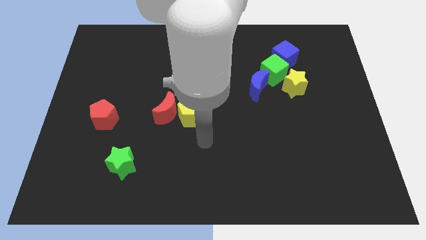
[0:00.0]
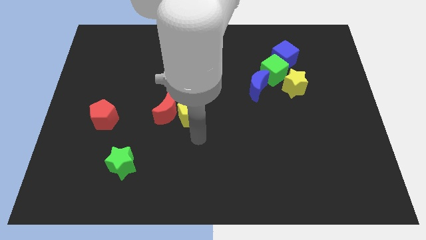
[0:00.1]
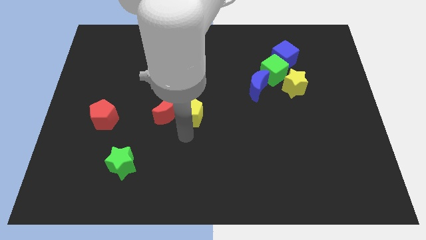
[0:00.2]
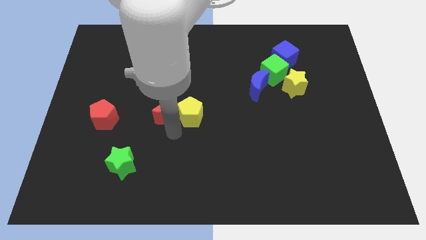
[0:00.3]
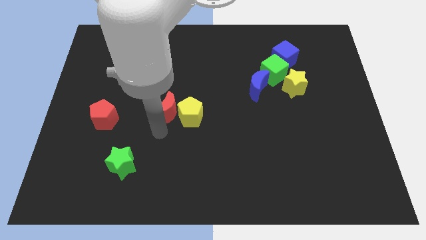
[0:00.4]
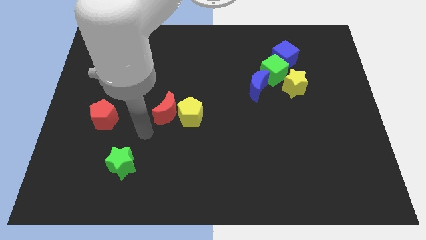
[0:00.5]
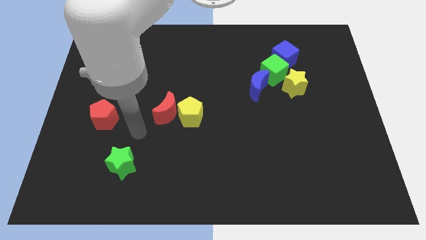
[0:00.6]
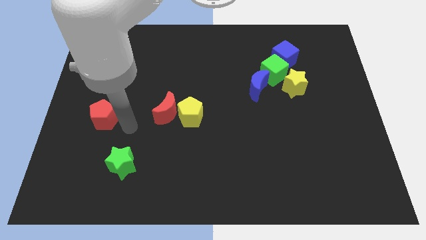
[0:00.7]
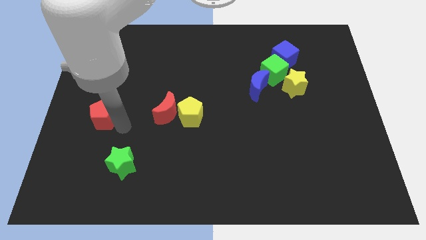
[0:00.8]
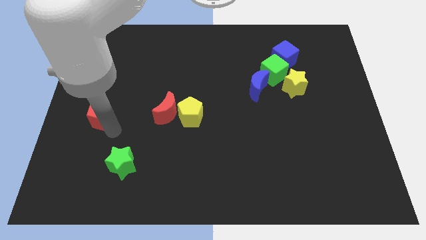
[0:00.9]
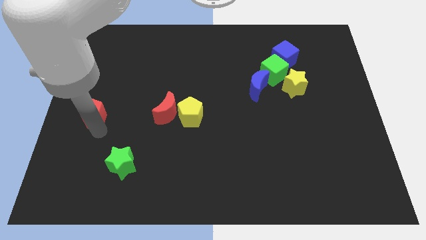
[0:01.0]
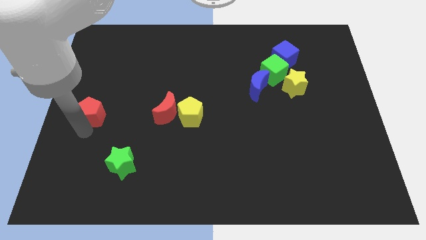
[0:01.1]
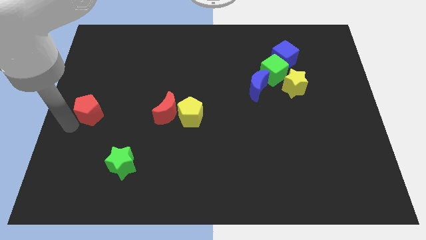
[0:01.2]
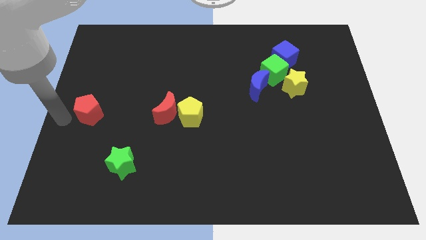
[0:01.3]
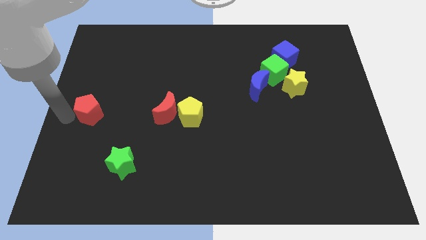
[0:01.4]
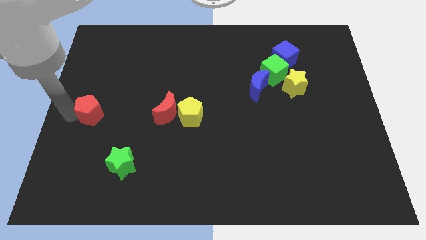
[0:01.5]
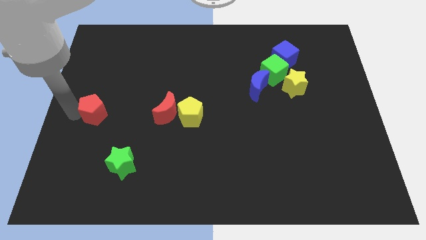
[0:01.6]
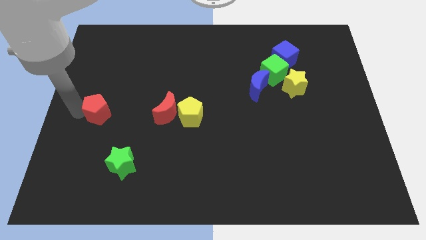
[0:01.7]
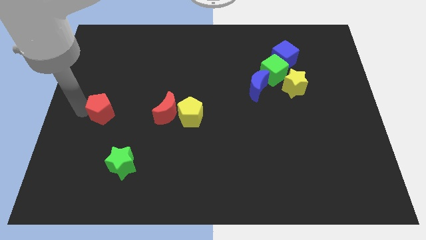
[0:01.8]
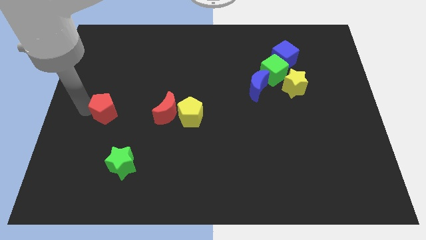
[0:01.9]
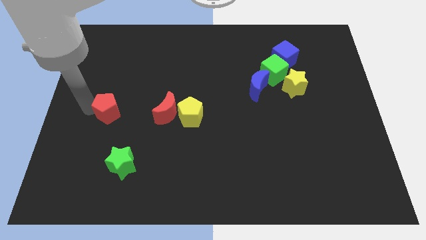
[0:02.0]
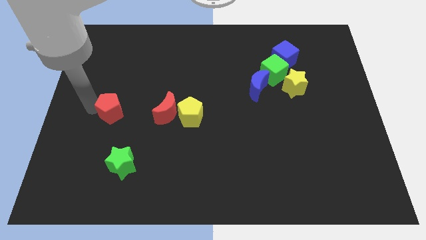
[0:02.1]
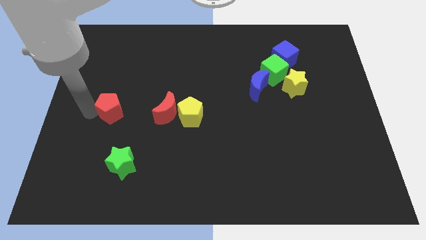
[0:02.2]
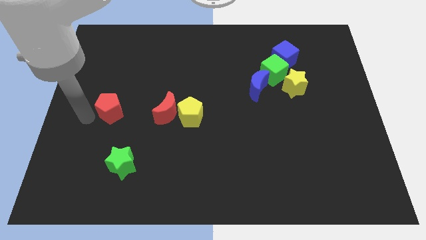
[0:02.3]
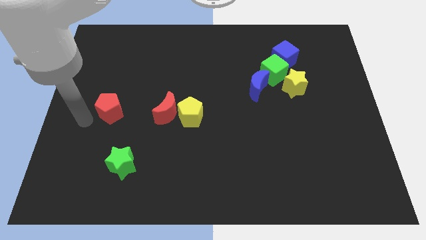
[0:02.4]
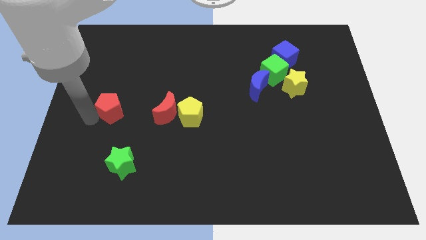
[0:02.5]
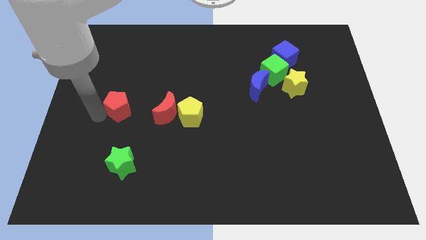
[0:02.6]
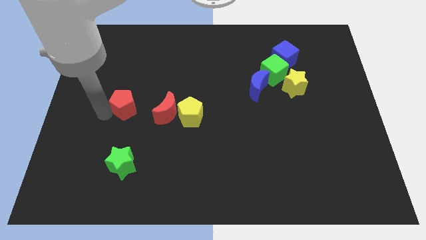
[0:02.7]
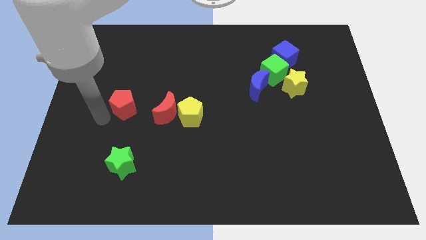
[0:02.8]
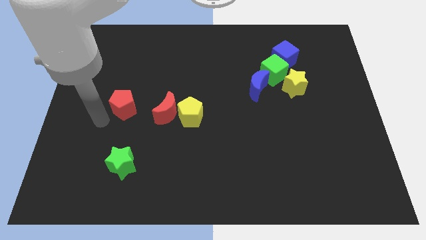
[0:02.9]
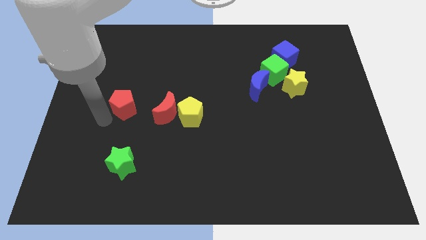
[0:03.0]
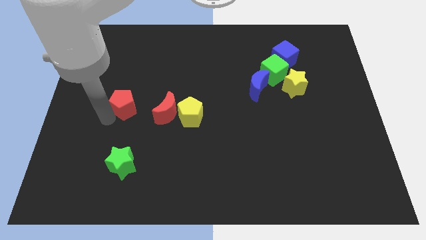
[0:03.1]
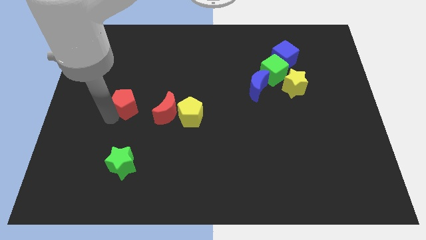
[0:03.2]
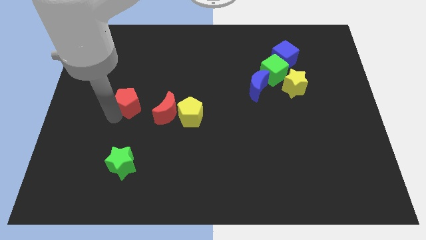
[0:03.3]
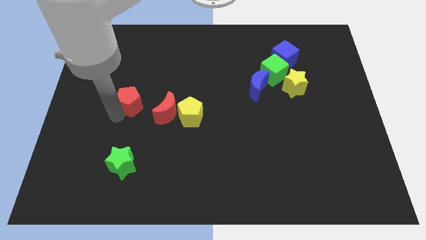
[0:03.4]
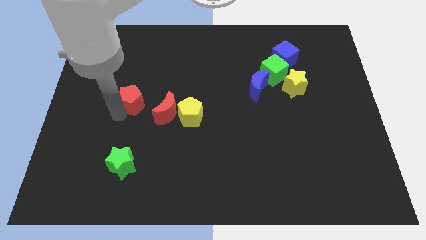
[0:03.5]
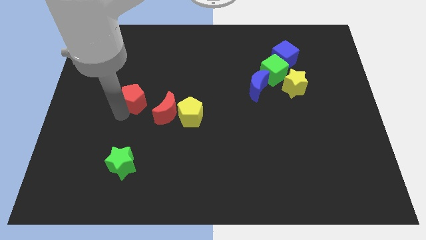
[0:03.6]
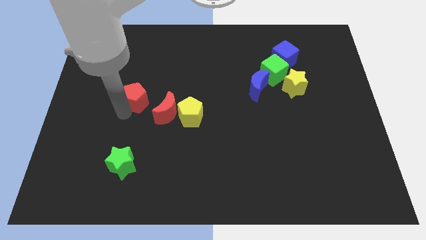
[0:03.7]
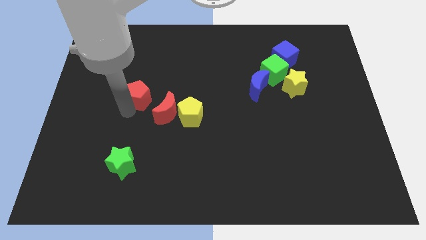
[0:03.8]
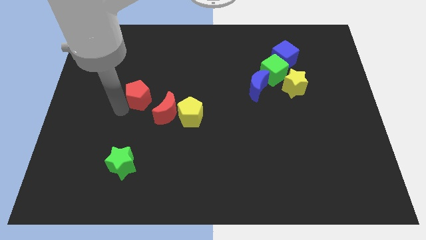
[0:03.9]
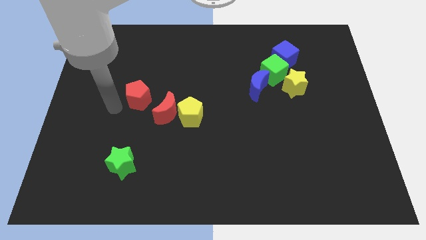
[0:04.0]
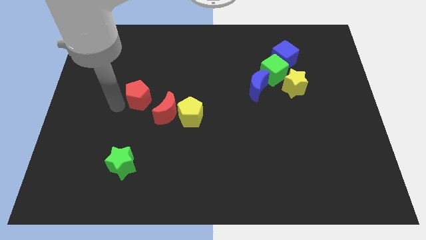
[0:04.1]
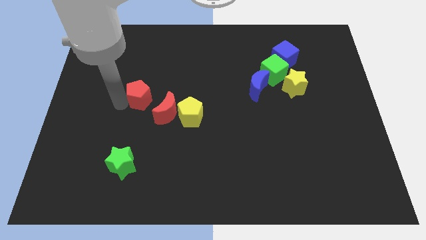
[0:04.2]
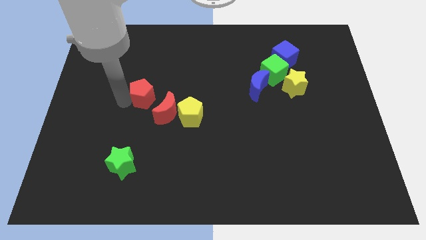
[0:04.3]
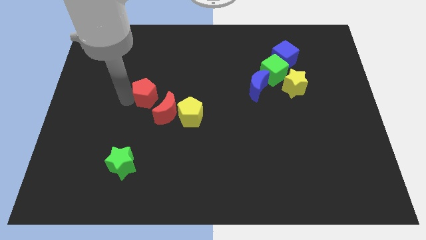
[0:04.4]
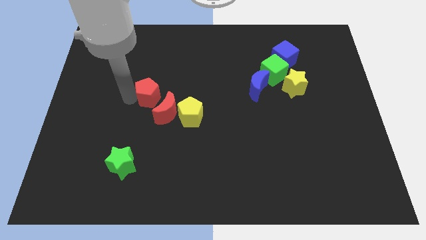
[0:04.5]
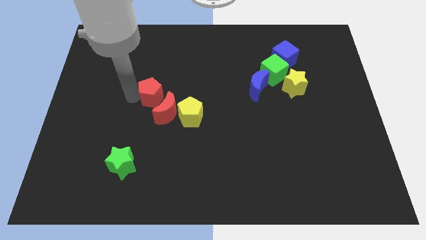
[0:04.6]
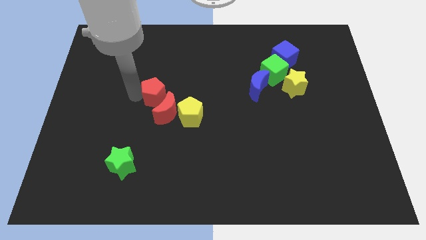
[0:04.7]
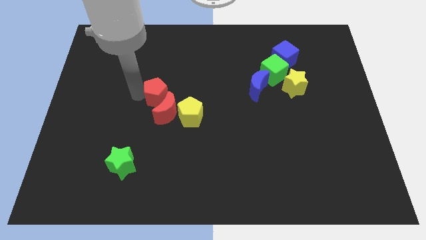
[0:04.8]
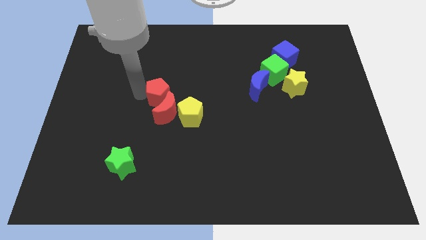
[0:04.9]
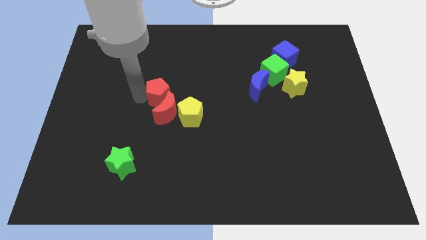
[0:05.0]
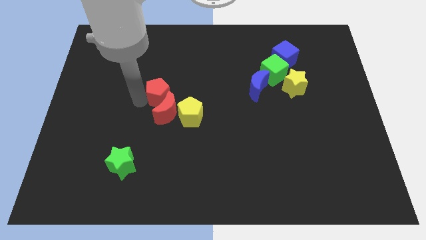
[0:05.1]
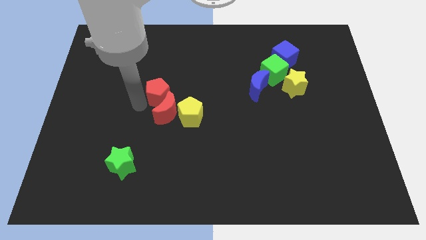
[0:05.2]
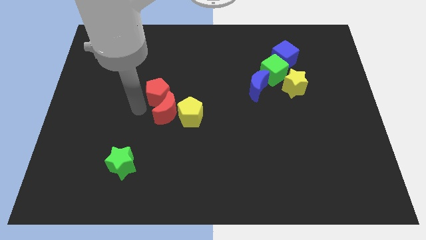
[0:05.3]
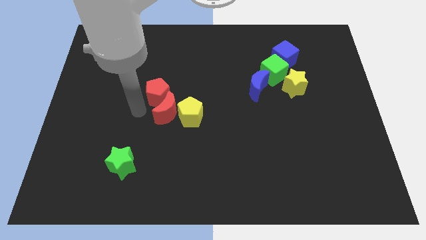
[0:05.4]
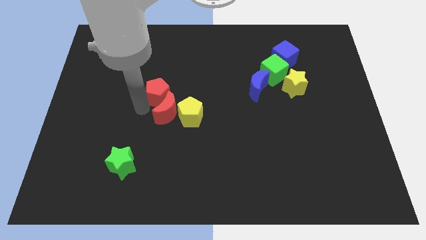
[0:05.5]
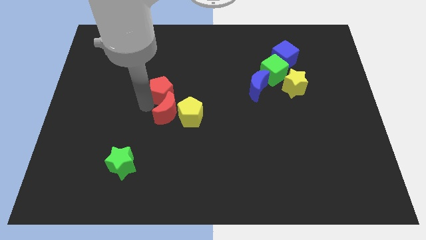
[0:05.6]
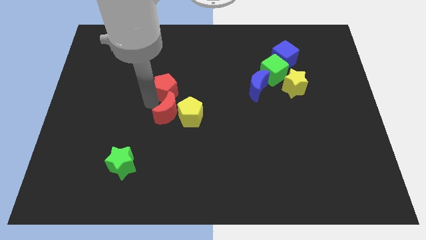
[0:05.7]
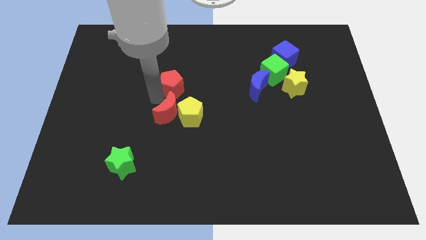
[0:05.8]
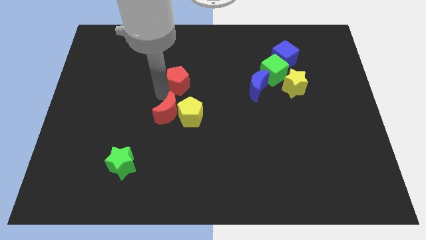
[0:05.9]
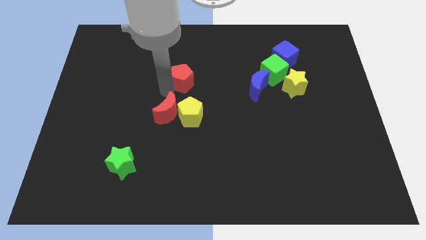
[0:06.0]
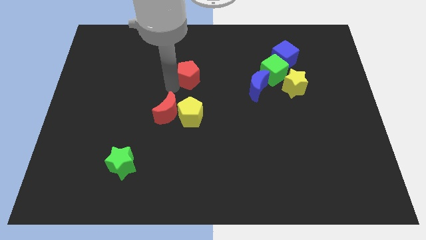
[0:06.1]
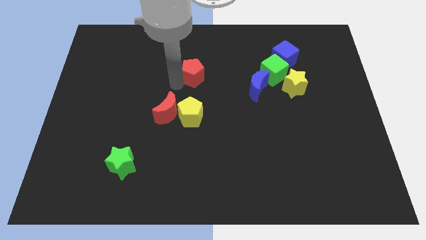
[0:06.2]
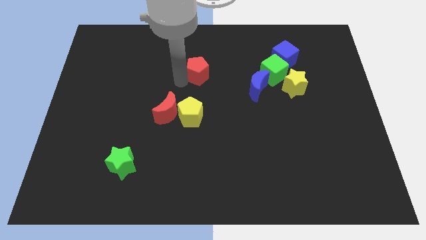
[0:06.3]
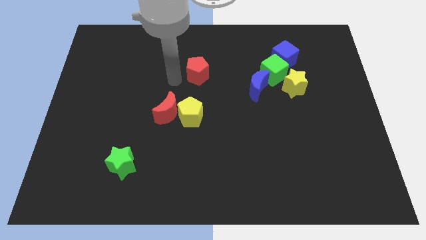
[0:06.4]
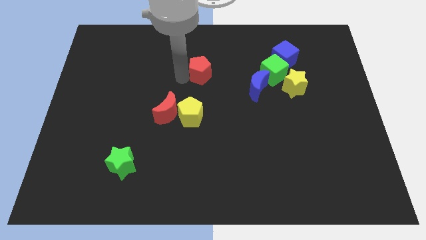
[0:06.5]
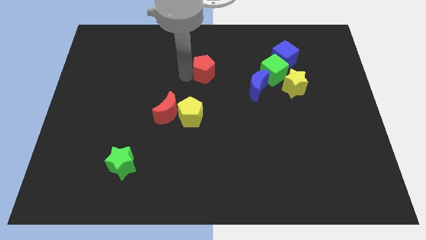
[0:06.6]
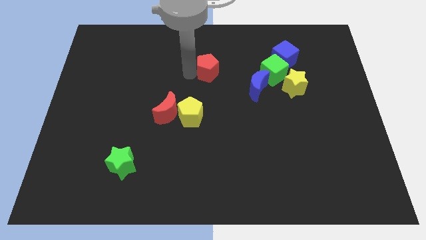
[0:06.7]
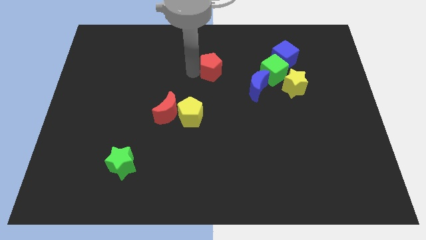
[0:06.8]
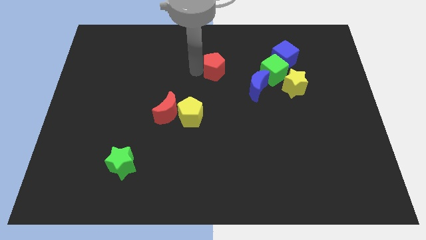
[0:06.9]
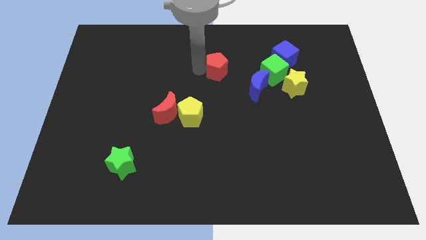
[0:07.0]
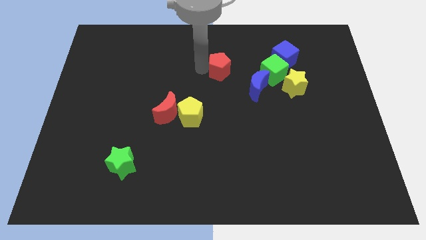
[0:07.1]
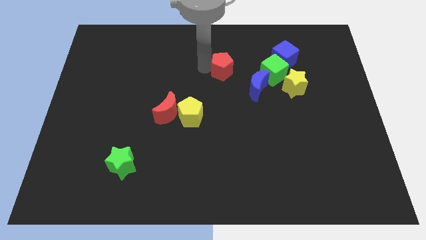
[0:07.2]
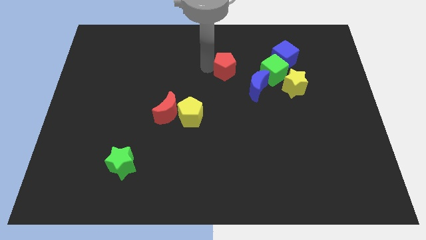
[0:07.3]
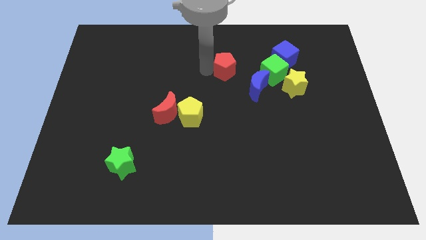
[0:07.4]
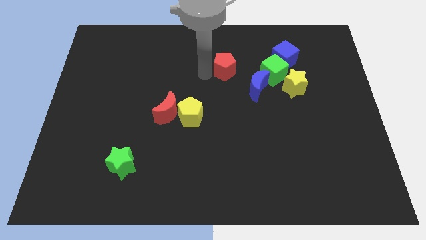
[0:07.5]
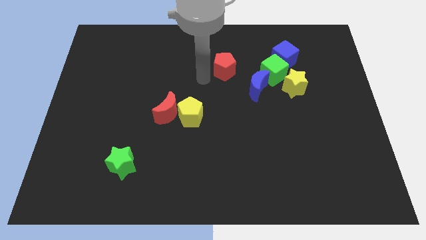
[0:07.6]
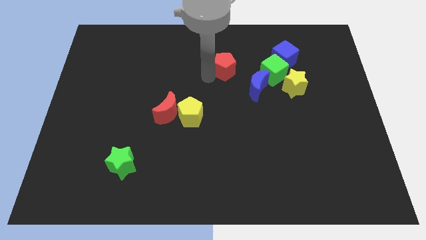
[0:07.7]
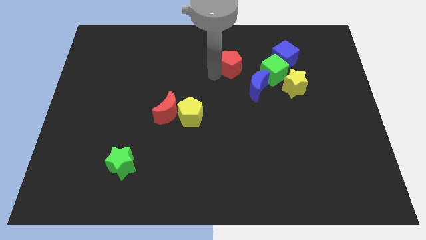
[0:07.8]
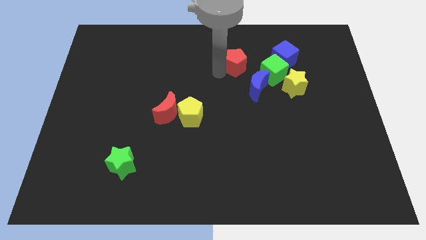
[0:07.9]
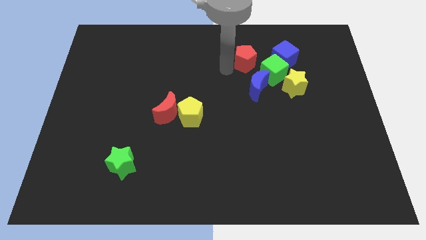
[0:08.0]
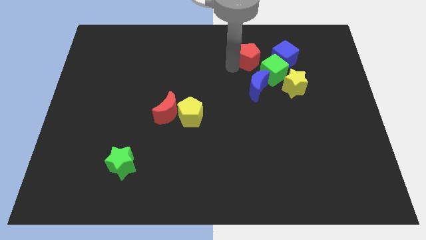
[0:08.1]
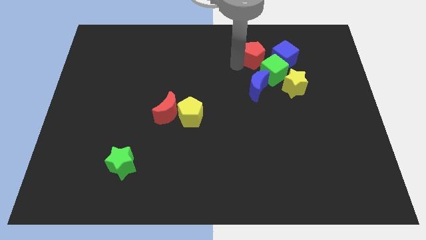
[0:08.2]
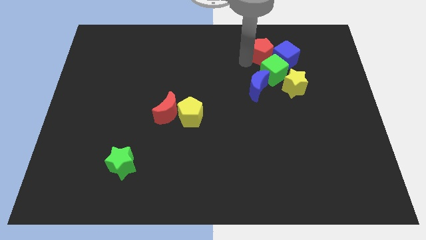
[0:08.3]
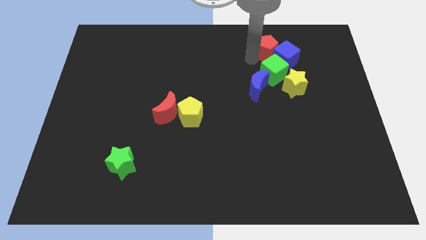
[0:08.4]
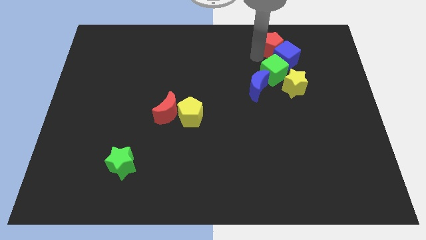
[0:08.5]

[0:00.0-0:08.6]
push the red pentagon to the top of the yellow star
